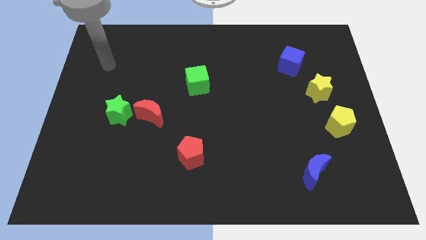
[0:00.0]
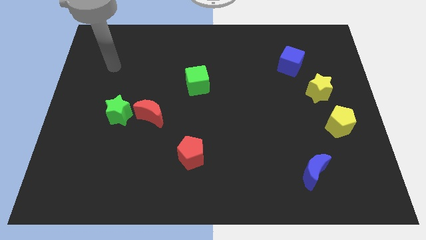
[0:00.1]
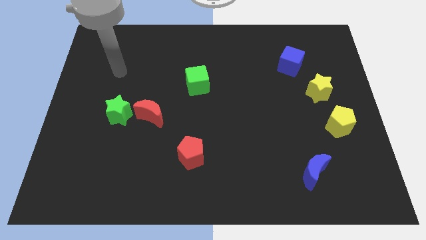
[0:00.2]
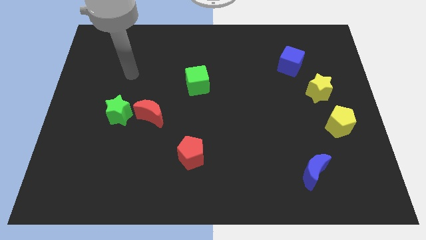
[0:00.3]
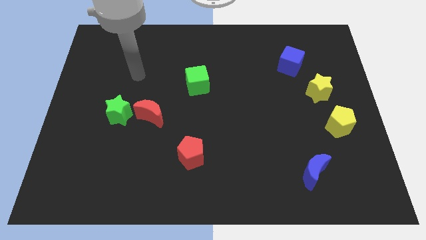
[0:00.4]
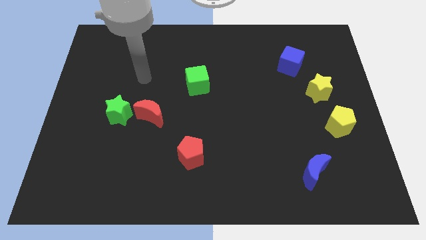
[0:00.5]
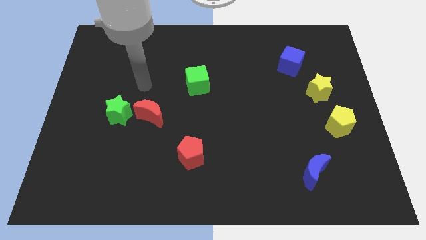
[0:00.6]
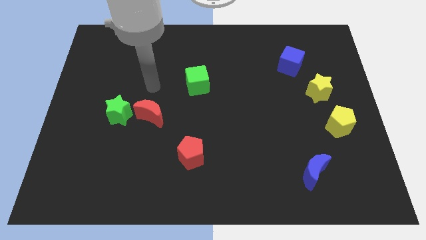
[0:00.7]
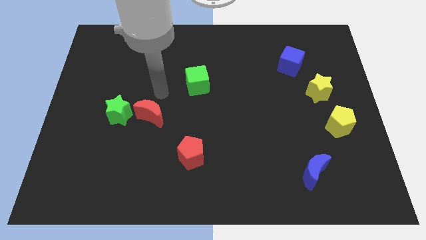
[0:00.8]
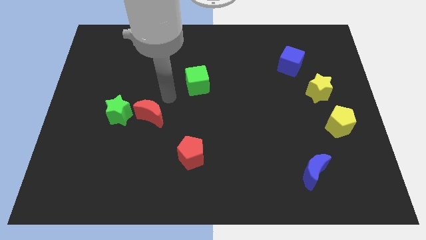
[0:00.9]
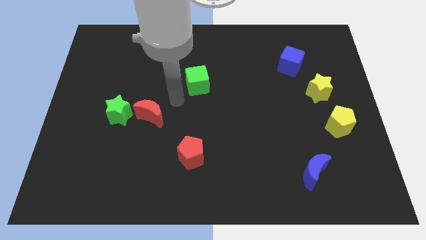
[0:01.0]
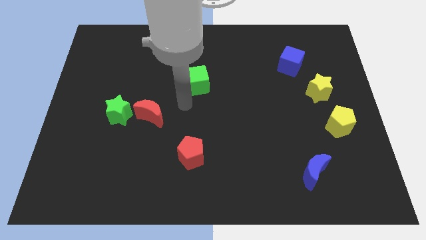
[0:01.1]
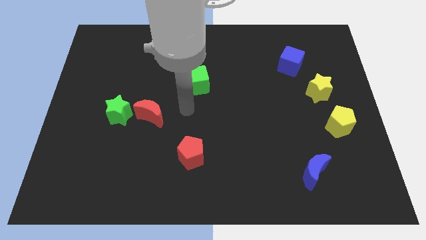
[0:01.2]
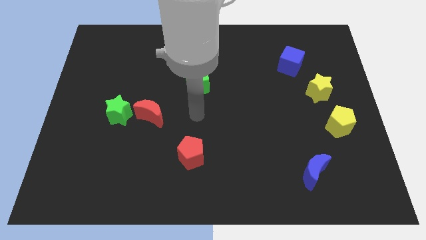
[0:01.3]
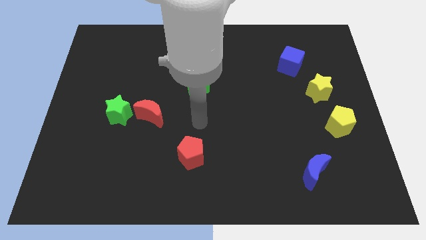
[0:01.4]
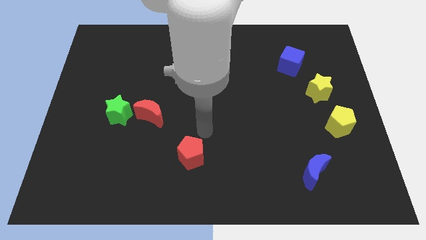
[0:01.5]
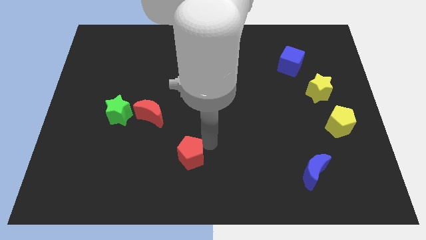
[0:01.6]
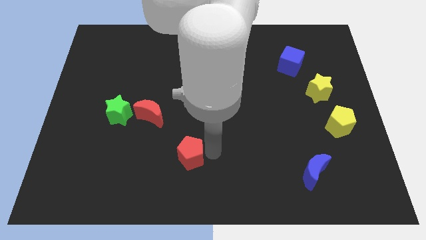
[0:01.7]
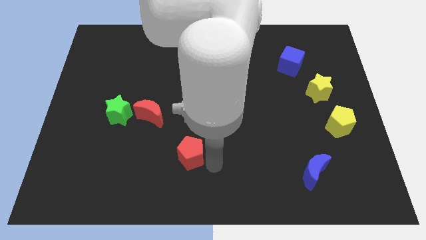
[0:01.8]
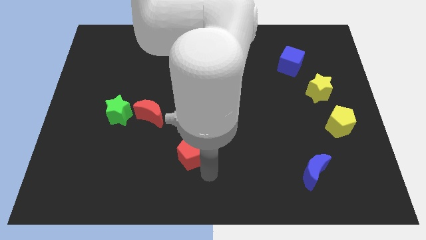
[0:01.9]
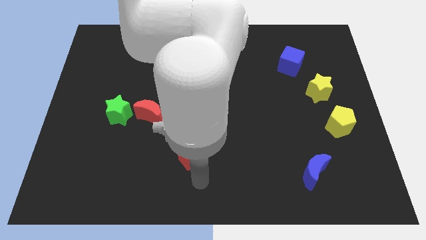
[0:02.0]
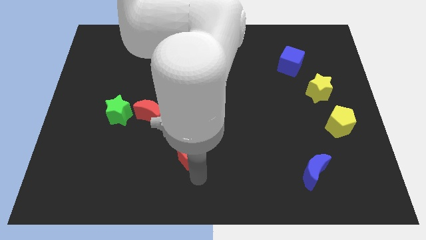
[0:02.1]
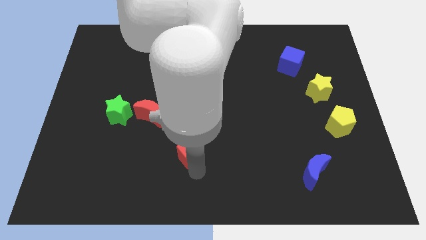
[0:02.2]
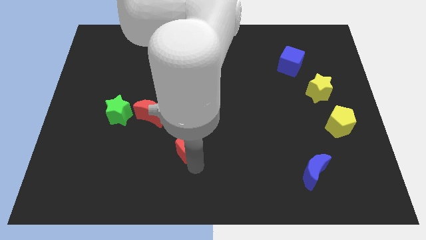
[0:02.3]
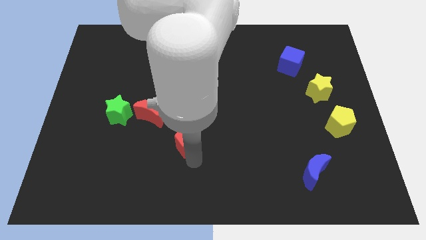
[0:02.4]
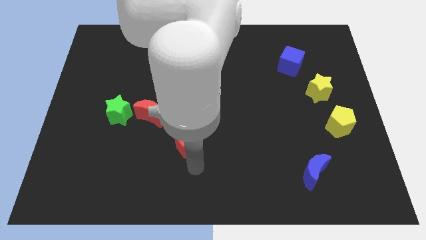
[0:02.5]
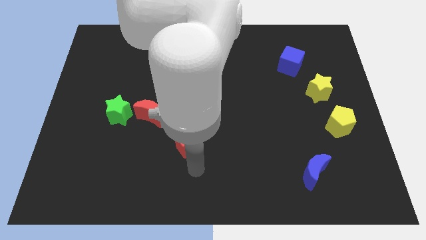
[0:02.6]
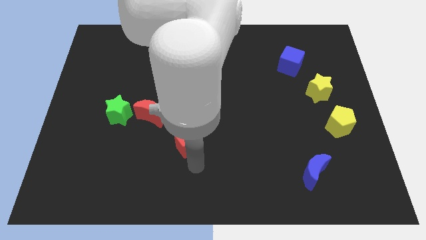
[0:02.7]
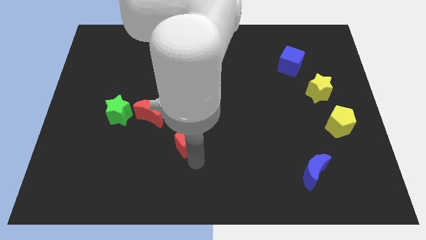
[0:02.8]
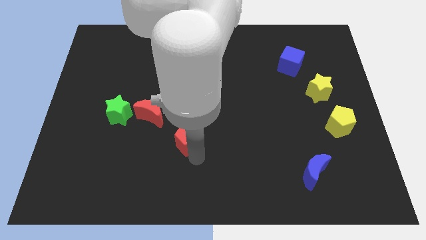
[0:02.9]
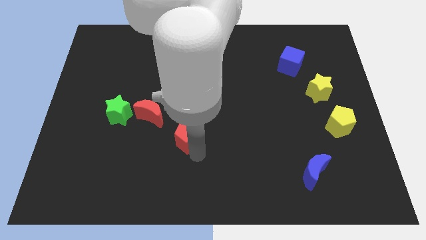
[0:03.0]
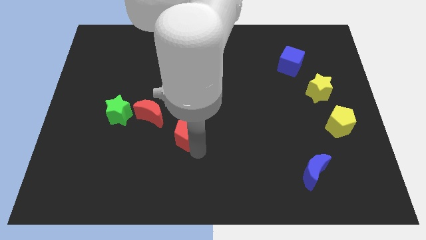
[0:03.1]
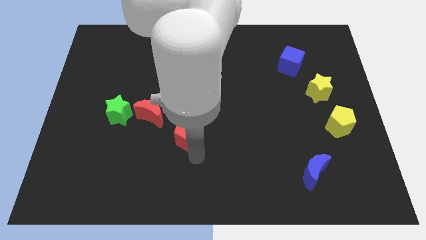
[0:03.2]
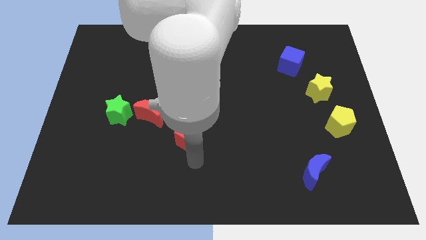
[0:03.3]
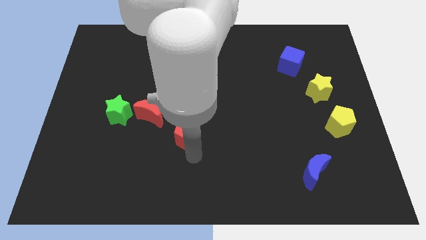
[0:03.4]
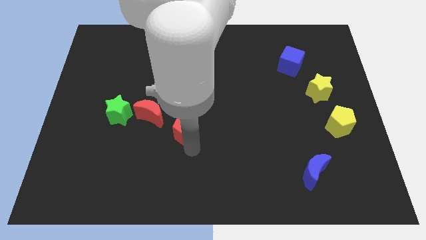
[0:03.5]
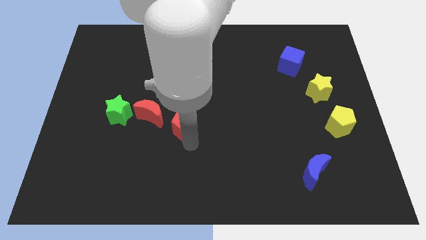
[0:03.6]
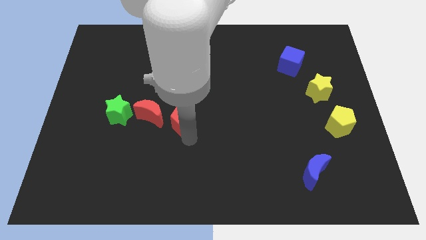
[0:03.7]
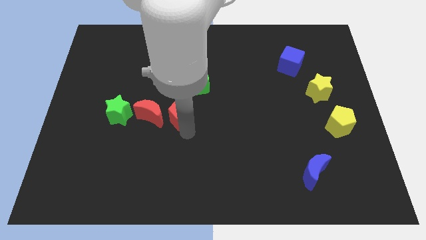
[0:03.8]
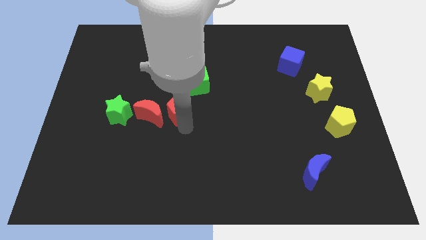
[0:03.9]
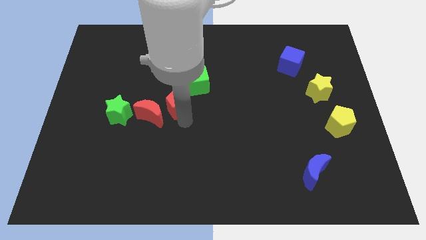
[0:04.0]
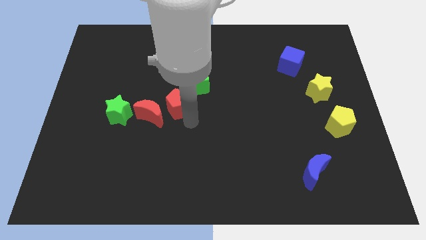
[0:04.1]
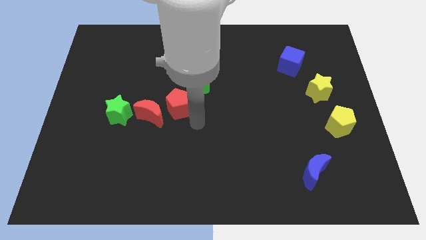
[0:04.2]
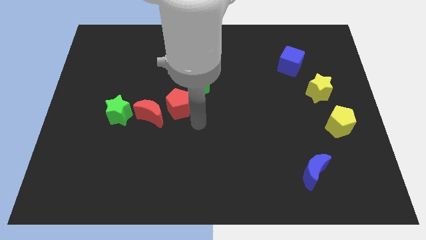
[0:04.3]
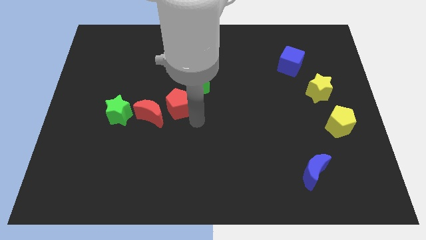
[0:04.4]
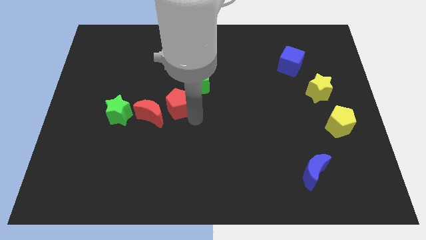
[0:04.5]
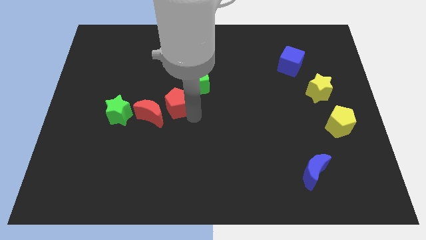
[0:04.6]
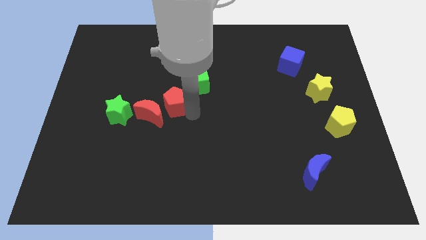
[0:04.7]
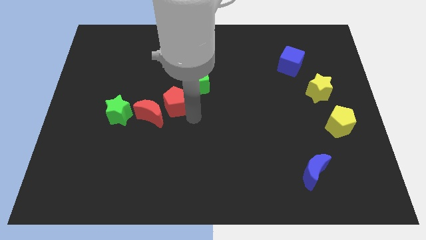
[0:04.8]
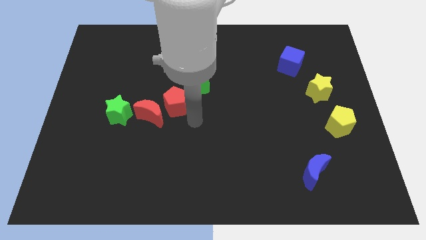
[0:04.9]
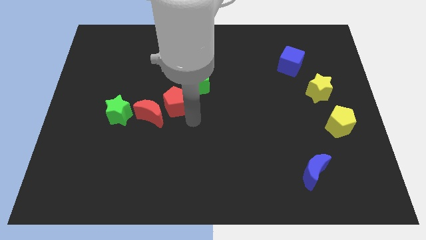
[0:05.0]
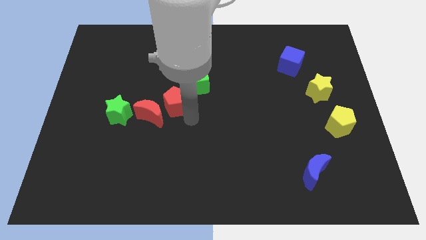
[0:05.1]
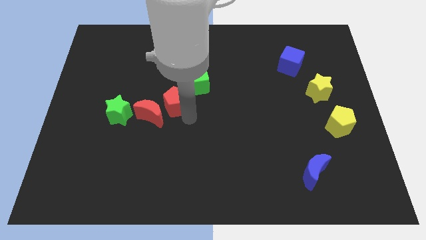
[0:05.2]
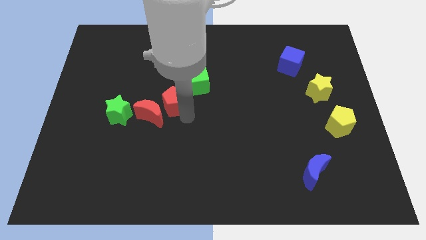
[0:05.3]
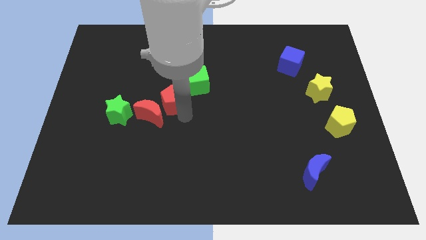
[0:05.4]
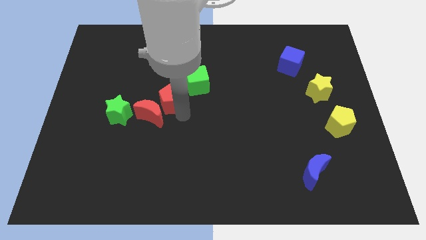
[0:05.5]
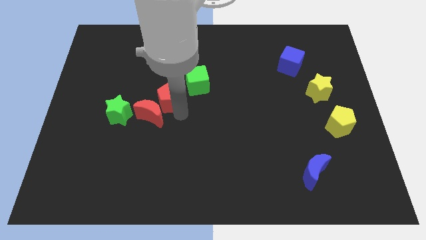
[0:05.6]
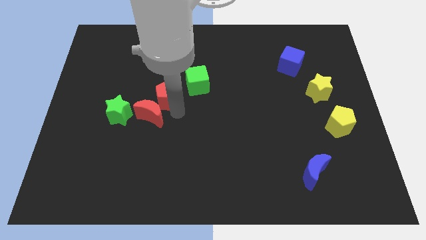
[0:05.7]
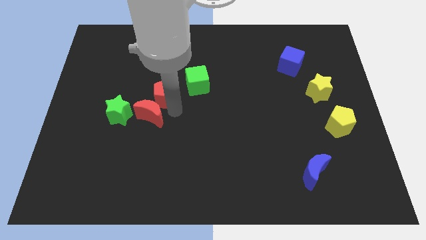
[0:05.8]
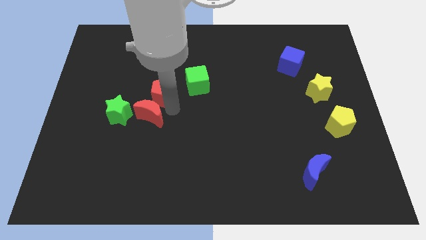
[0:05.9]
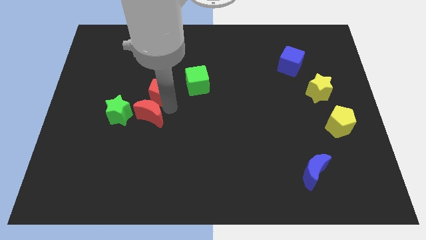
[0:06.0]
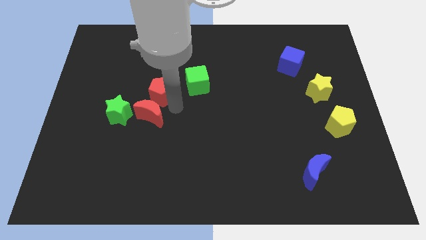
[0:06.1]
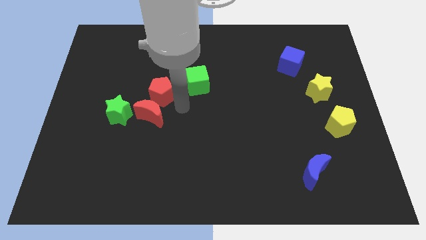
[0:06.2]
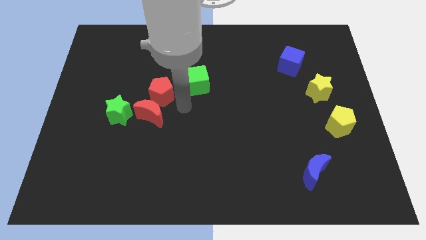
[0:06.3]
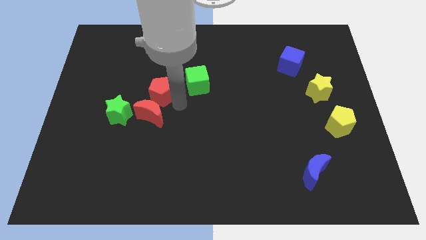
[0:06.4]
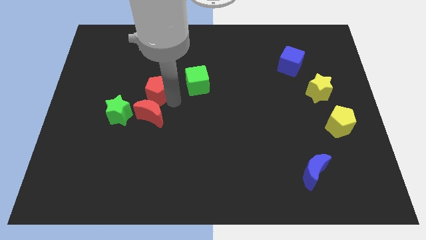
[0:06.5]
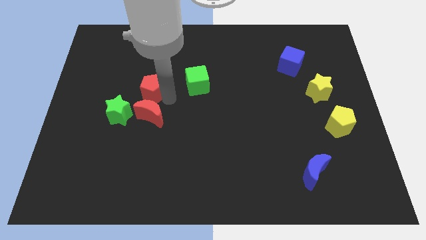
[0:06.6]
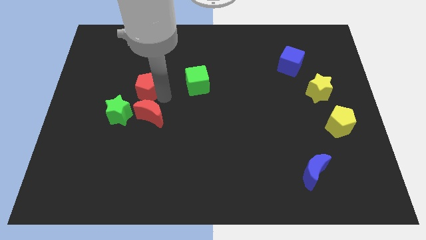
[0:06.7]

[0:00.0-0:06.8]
push the red pentagon up and to the left diagonally

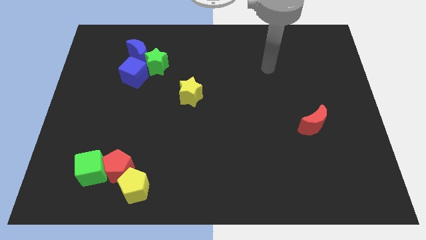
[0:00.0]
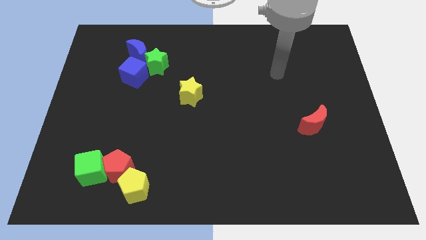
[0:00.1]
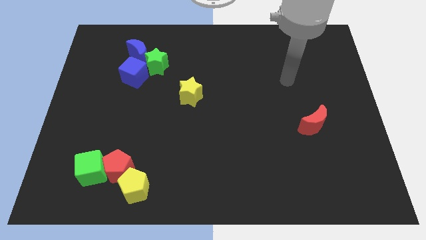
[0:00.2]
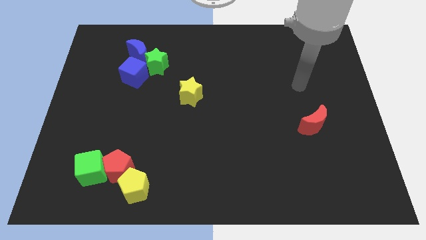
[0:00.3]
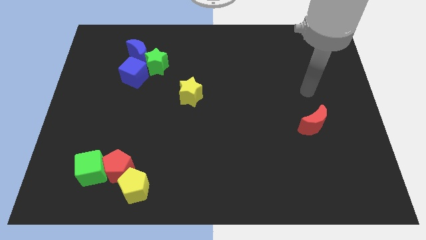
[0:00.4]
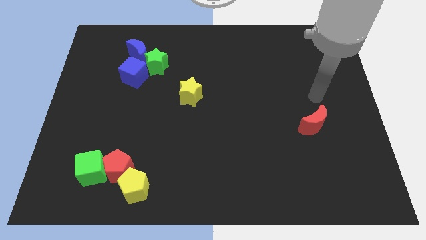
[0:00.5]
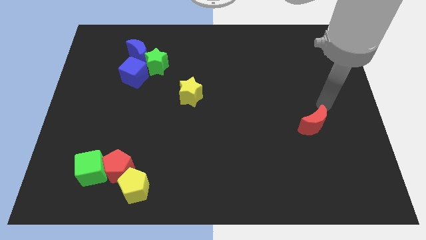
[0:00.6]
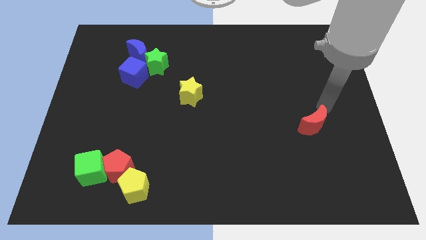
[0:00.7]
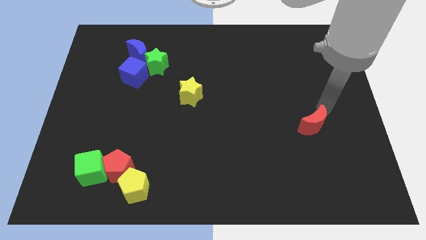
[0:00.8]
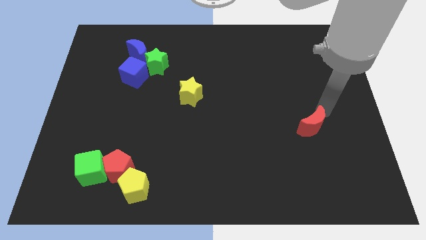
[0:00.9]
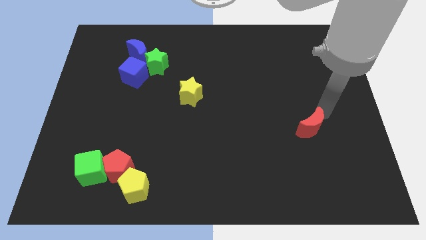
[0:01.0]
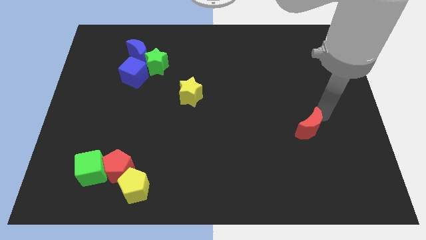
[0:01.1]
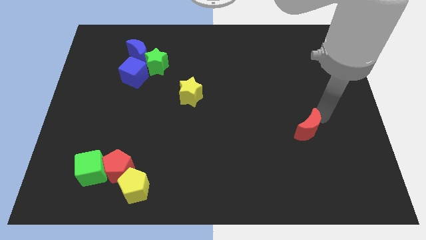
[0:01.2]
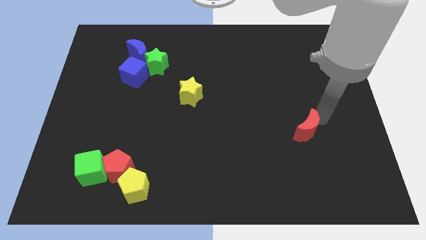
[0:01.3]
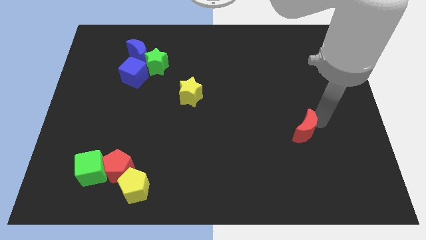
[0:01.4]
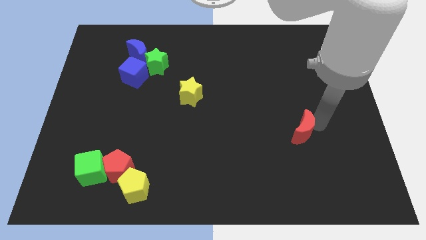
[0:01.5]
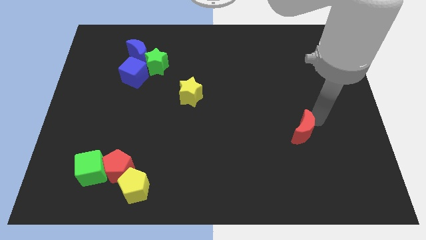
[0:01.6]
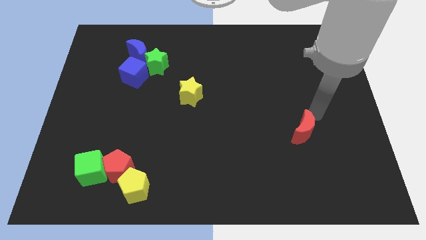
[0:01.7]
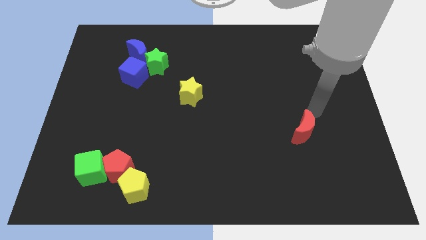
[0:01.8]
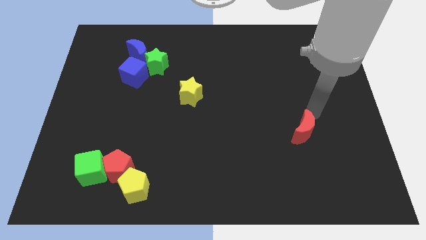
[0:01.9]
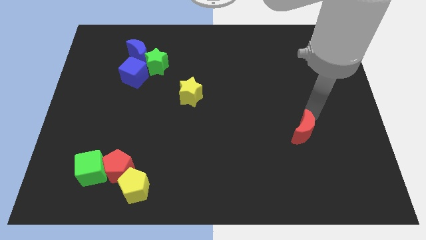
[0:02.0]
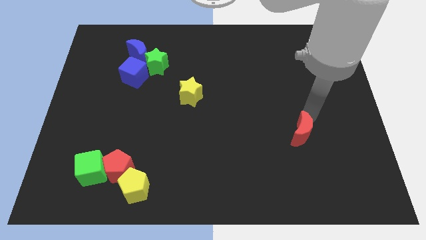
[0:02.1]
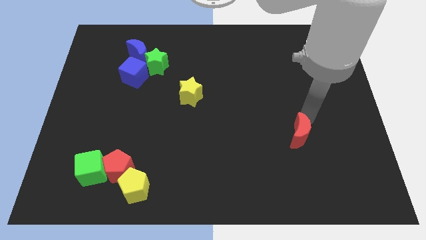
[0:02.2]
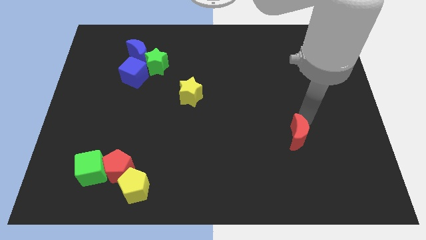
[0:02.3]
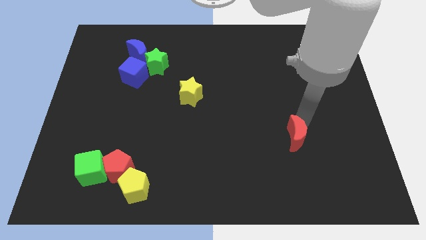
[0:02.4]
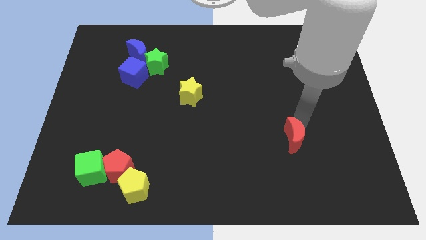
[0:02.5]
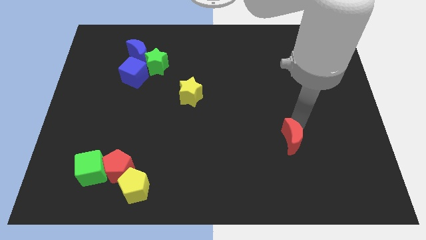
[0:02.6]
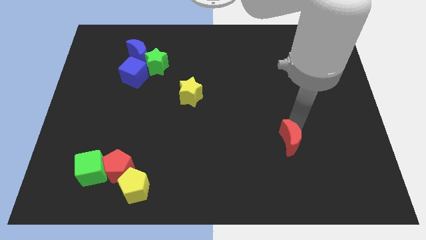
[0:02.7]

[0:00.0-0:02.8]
slightly push the red moon down and left diagonally
